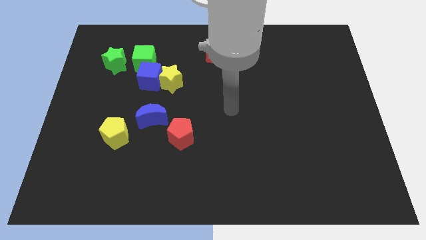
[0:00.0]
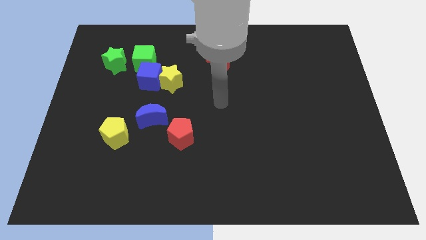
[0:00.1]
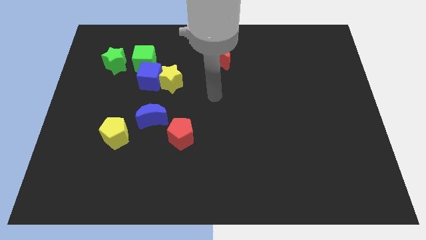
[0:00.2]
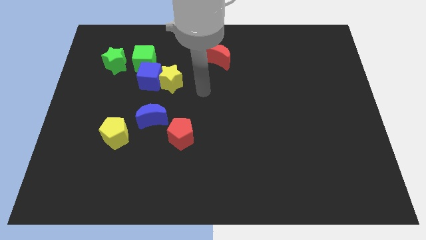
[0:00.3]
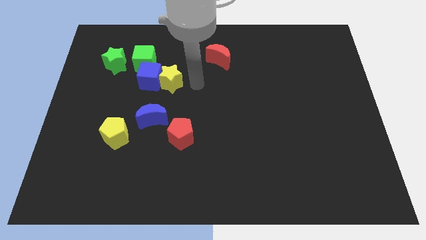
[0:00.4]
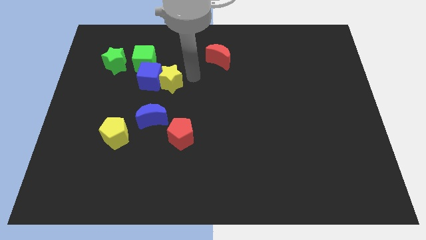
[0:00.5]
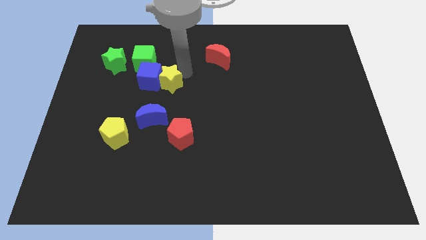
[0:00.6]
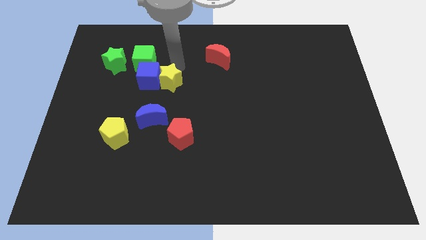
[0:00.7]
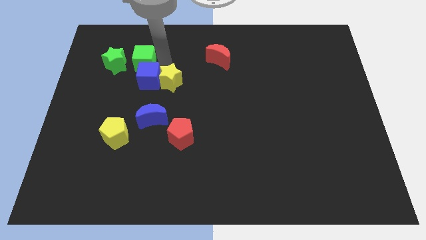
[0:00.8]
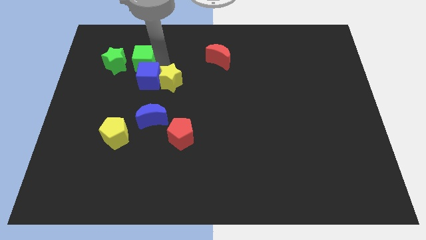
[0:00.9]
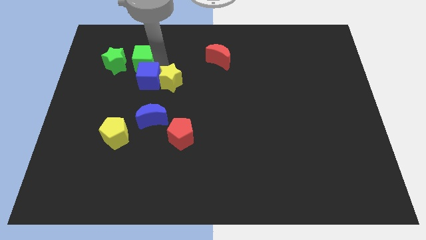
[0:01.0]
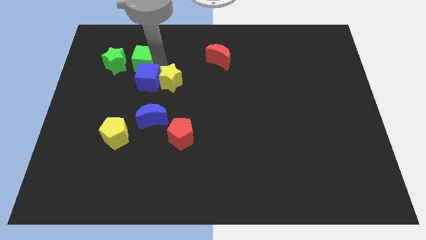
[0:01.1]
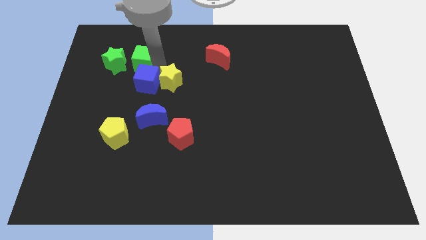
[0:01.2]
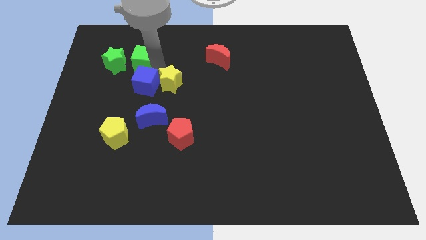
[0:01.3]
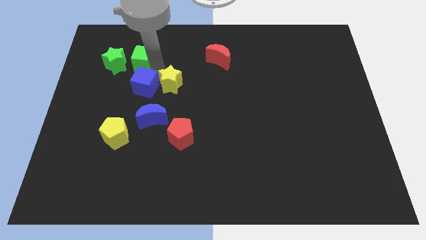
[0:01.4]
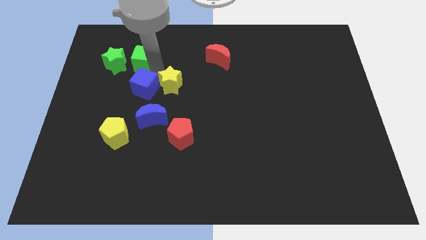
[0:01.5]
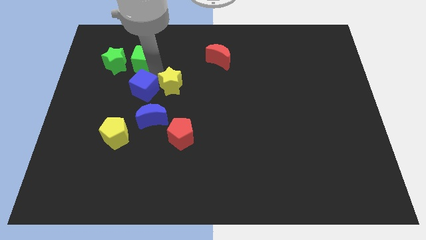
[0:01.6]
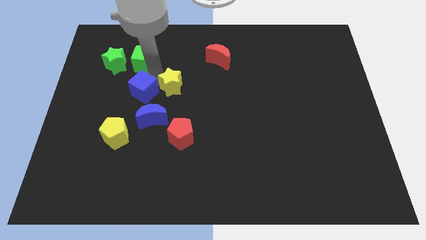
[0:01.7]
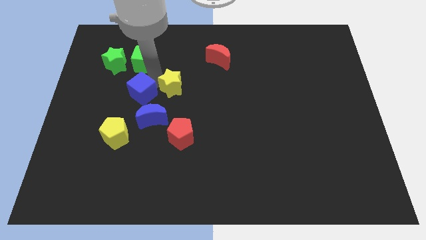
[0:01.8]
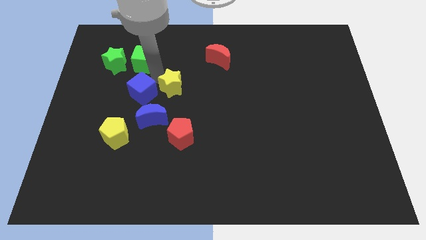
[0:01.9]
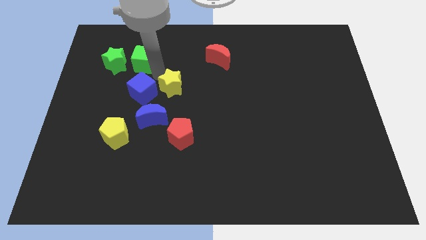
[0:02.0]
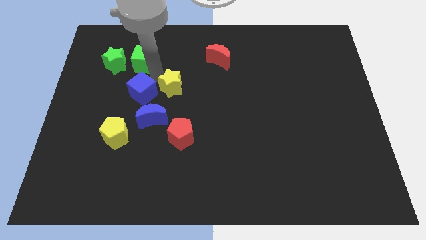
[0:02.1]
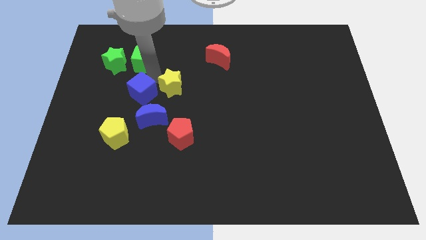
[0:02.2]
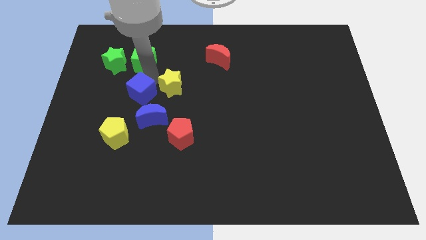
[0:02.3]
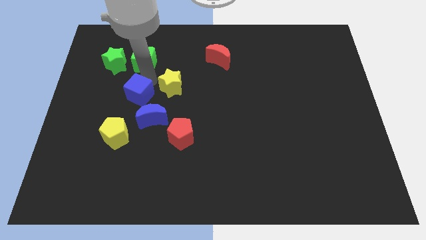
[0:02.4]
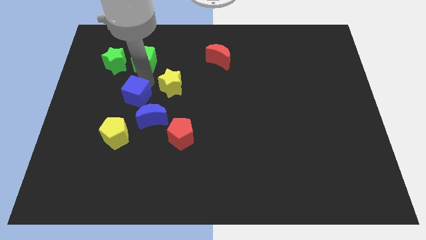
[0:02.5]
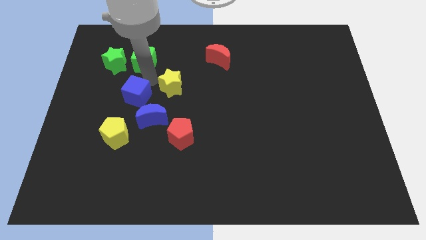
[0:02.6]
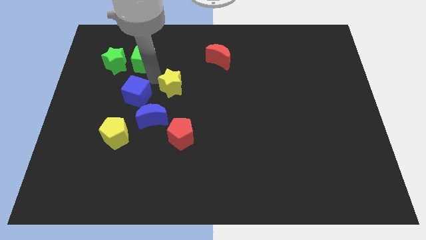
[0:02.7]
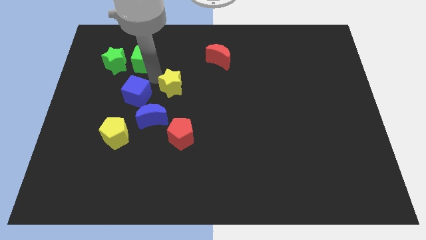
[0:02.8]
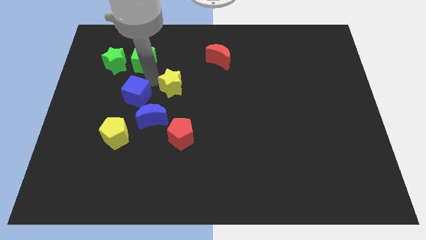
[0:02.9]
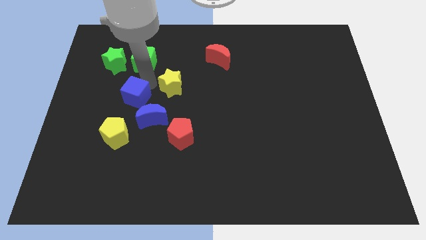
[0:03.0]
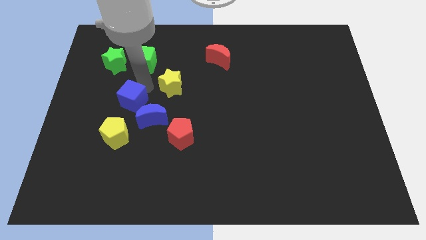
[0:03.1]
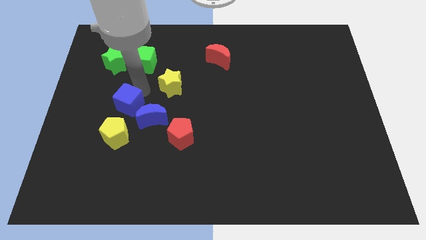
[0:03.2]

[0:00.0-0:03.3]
move the blue cube away from the yellow star and green cube

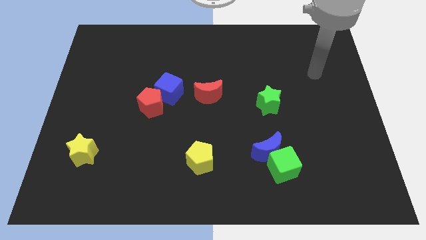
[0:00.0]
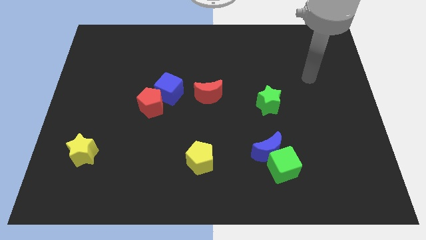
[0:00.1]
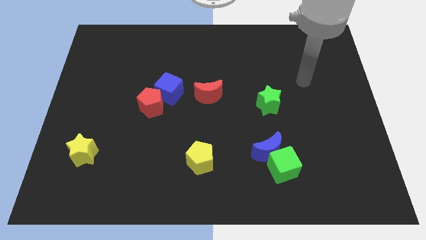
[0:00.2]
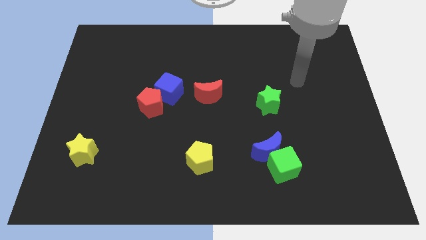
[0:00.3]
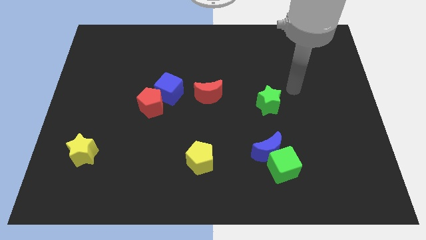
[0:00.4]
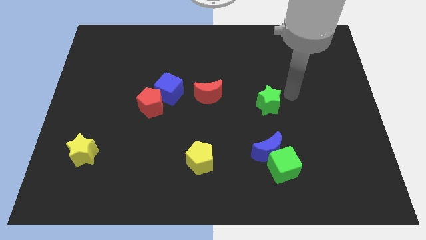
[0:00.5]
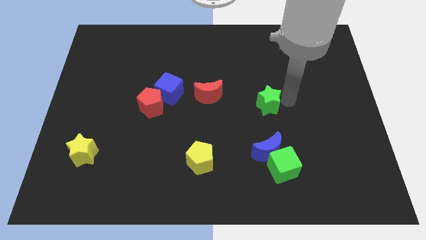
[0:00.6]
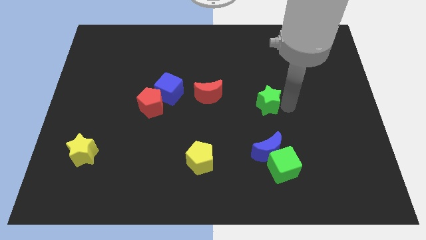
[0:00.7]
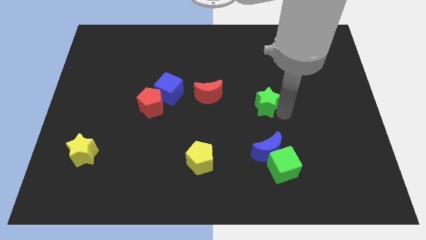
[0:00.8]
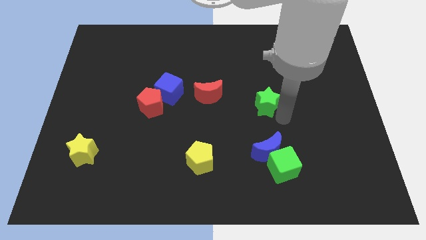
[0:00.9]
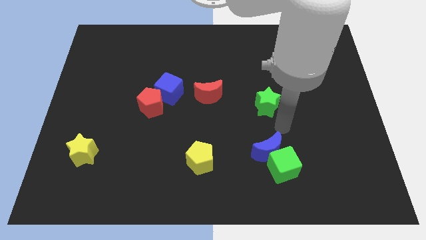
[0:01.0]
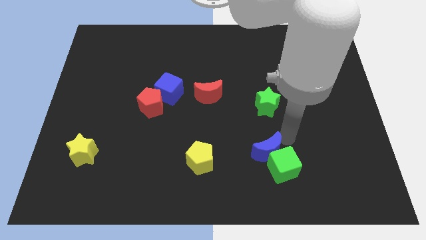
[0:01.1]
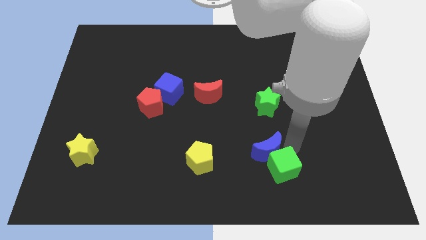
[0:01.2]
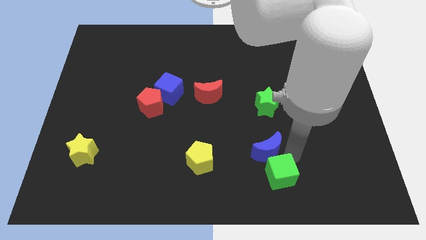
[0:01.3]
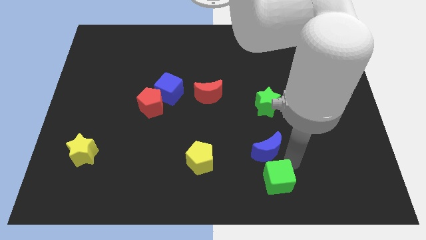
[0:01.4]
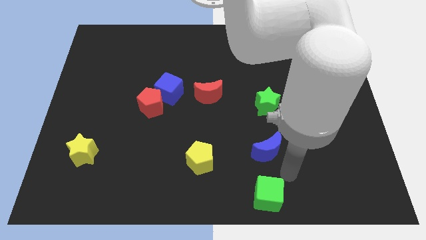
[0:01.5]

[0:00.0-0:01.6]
separate the blue moon from the green cube

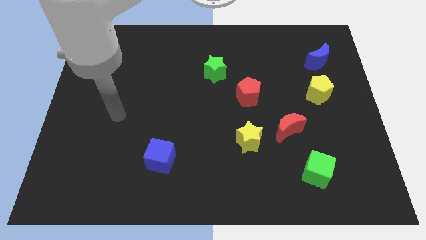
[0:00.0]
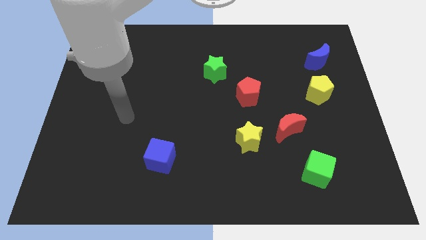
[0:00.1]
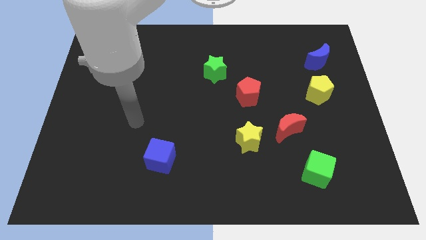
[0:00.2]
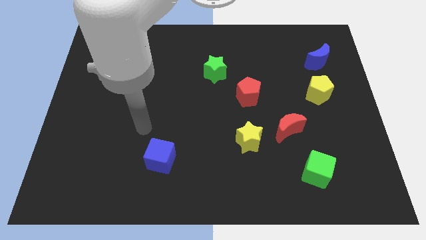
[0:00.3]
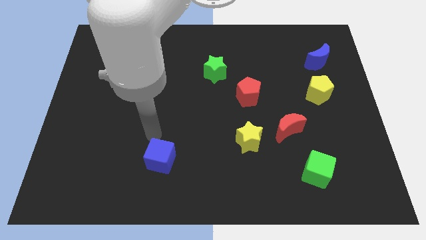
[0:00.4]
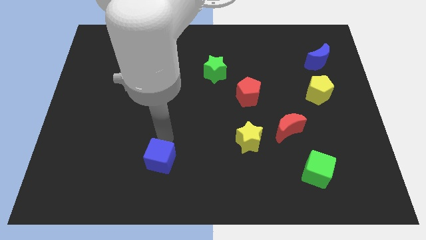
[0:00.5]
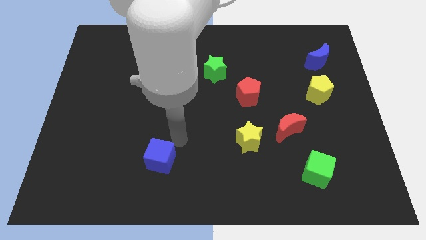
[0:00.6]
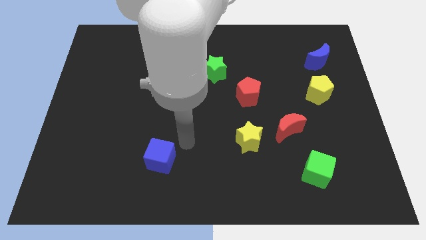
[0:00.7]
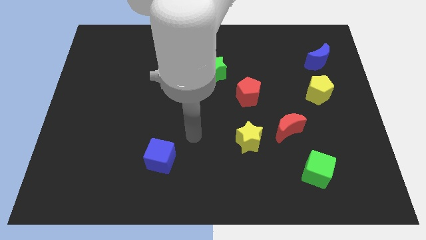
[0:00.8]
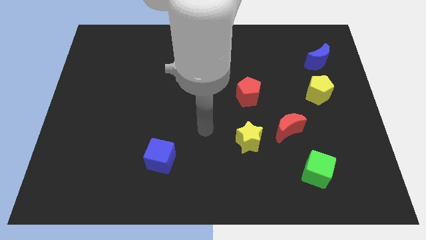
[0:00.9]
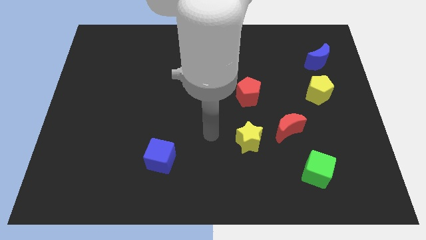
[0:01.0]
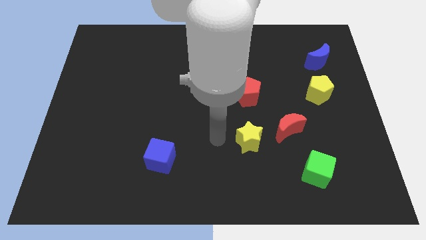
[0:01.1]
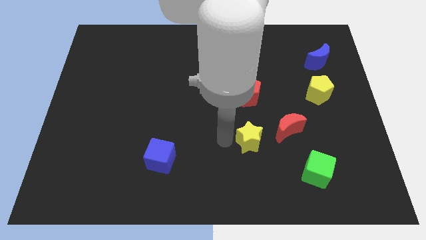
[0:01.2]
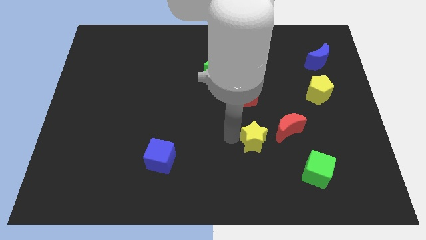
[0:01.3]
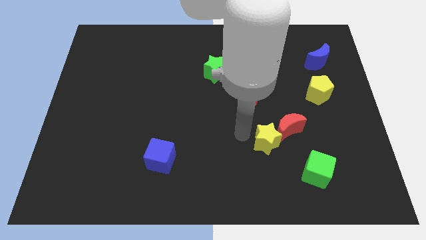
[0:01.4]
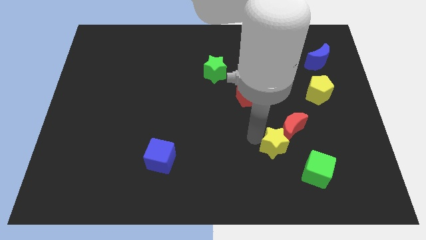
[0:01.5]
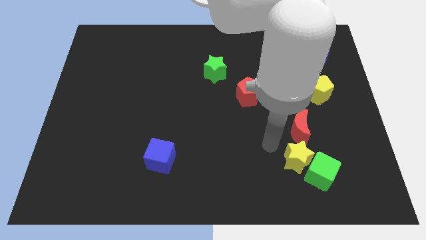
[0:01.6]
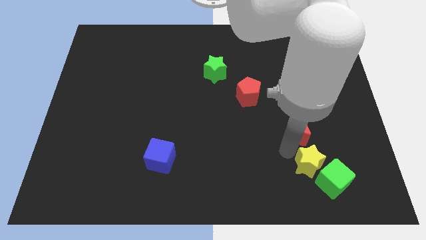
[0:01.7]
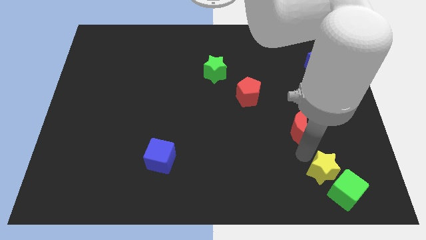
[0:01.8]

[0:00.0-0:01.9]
move the red moon away from the yellow star

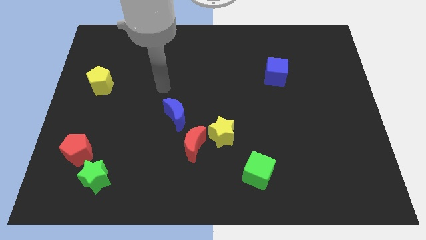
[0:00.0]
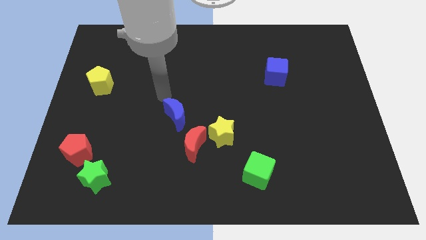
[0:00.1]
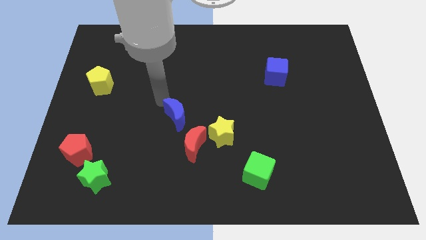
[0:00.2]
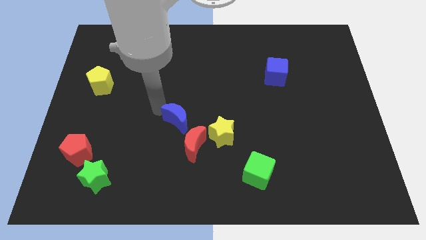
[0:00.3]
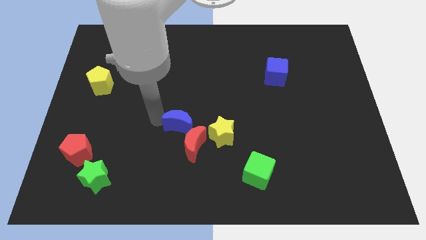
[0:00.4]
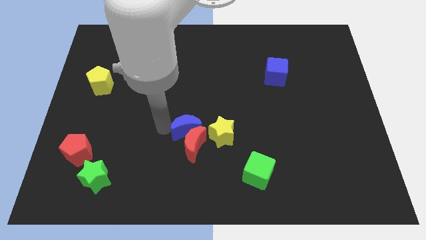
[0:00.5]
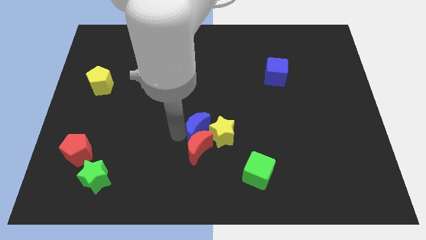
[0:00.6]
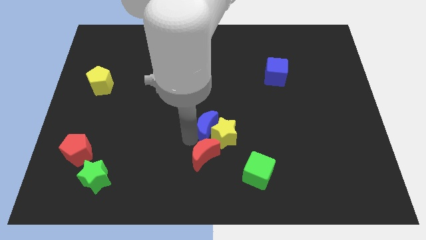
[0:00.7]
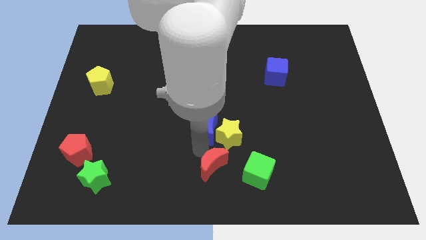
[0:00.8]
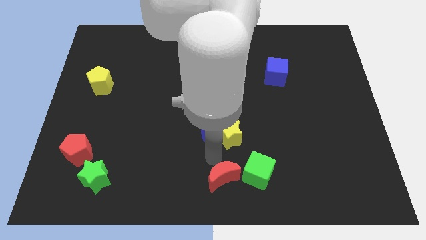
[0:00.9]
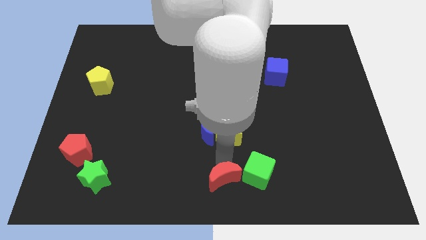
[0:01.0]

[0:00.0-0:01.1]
pull the yellow star apart from the red moon

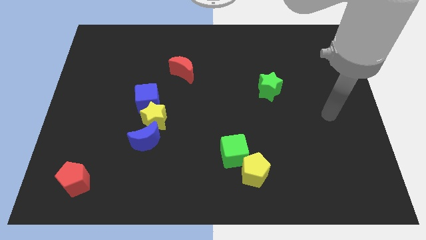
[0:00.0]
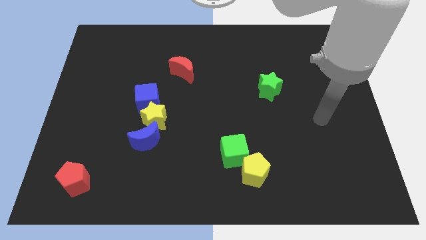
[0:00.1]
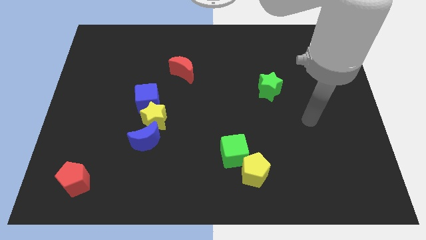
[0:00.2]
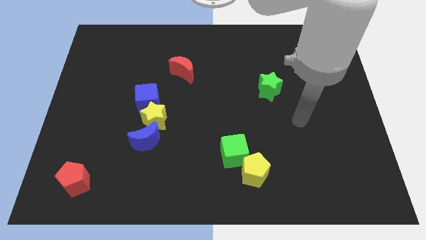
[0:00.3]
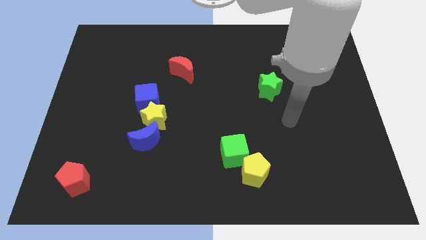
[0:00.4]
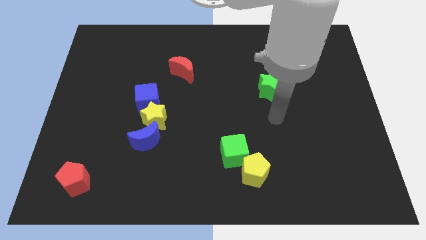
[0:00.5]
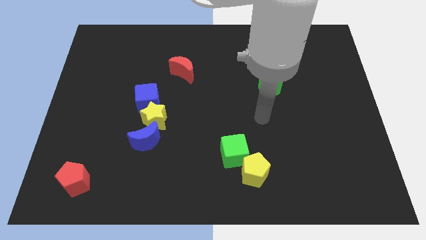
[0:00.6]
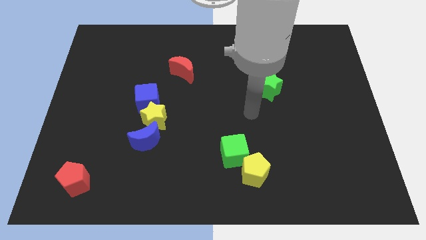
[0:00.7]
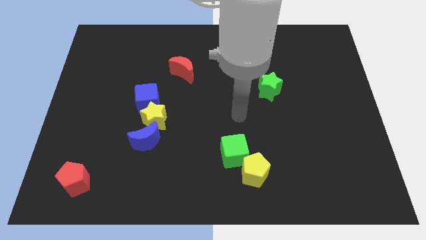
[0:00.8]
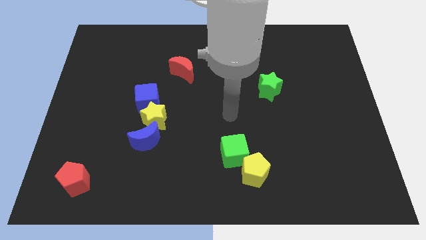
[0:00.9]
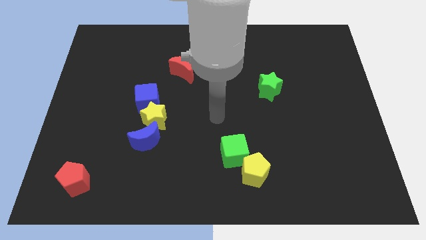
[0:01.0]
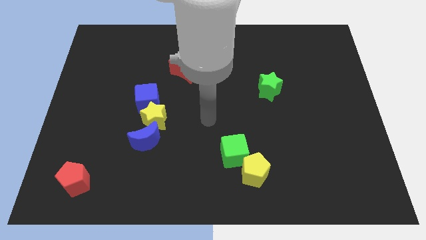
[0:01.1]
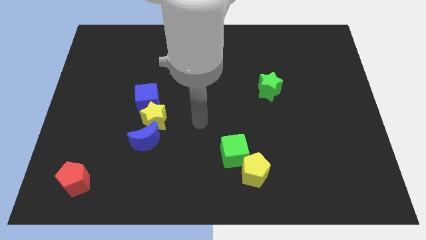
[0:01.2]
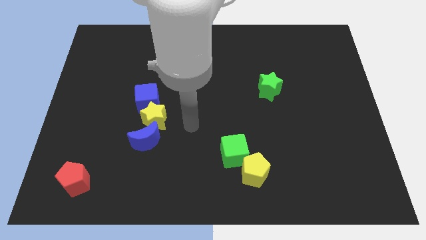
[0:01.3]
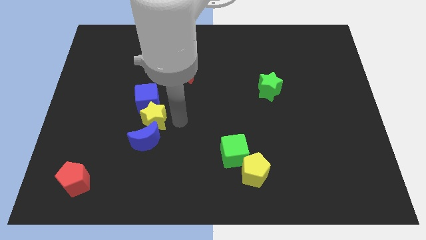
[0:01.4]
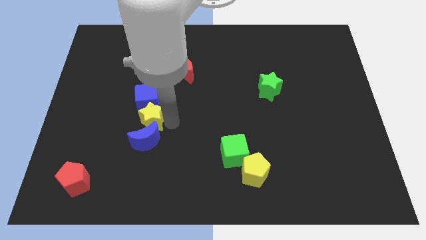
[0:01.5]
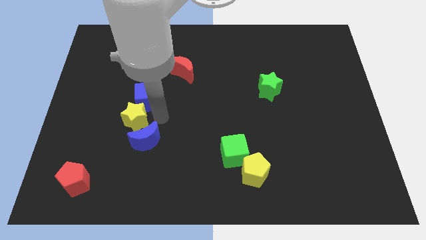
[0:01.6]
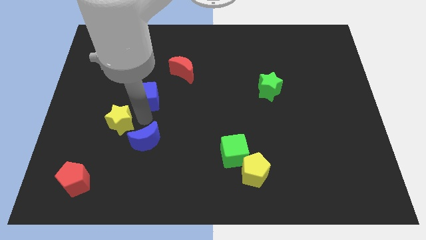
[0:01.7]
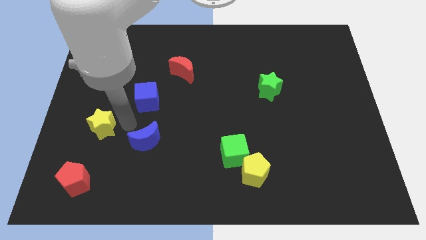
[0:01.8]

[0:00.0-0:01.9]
pull the blue moon apart from the yellow star
